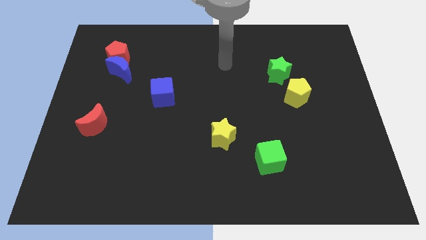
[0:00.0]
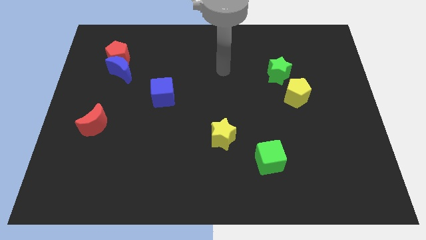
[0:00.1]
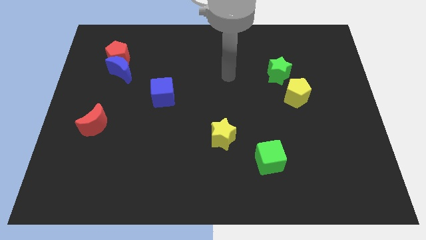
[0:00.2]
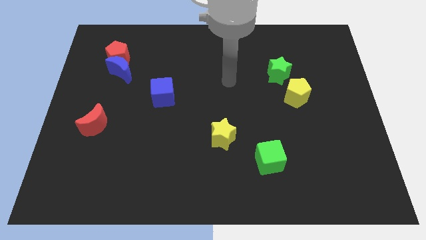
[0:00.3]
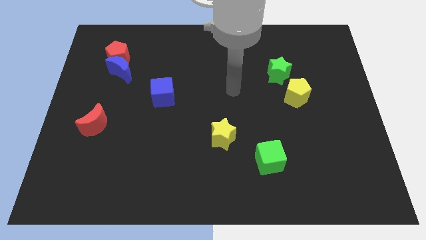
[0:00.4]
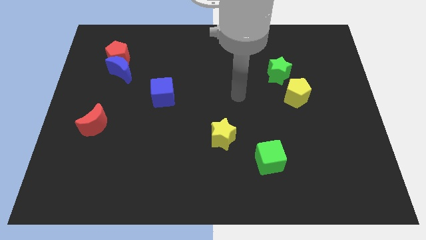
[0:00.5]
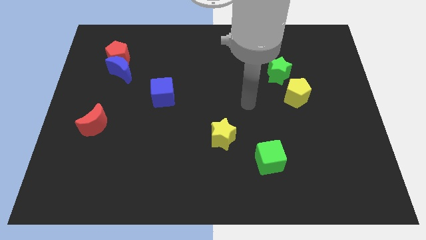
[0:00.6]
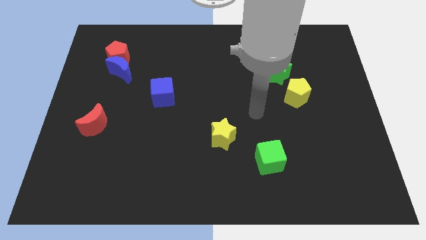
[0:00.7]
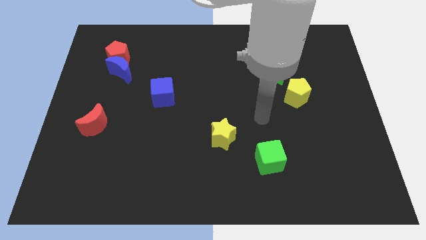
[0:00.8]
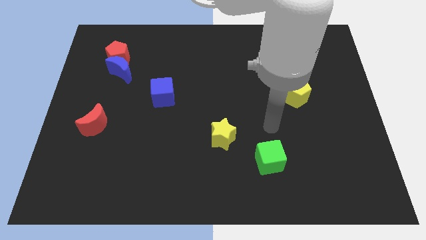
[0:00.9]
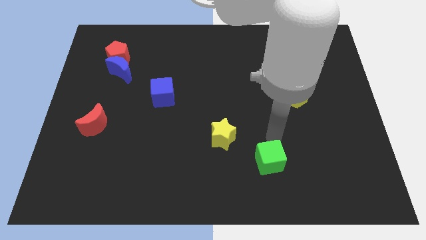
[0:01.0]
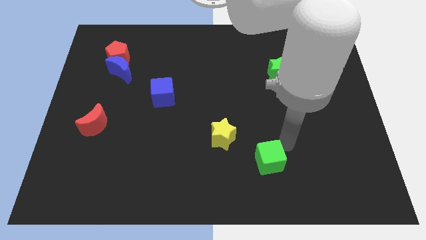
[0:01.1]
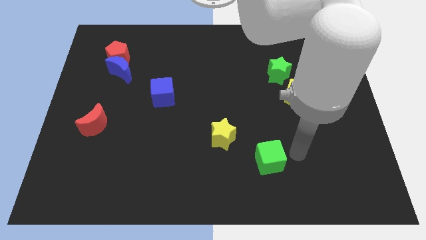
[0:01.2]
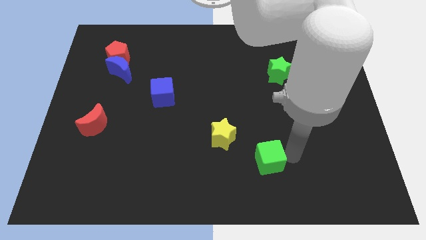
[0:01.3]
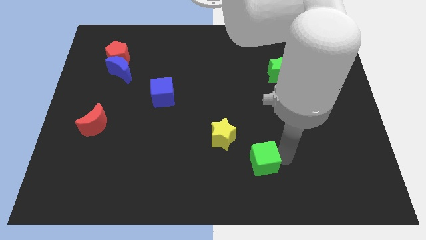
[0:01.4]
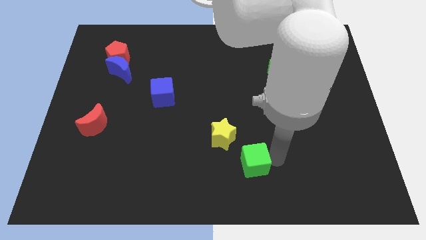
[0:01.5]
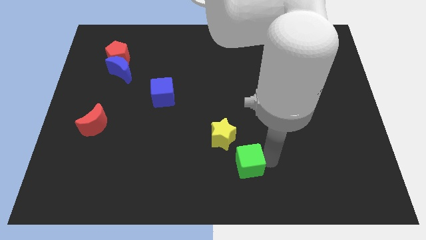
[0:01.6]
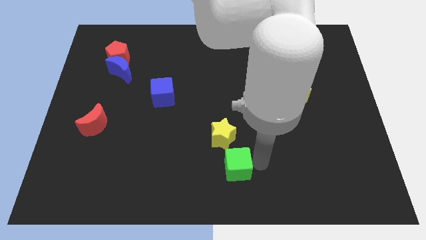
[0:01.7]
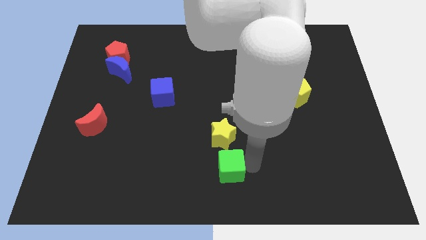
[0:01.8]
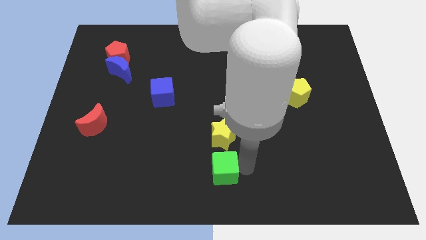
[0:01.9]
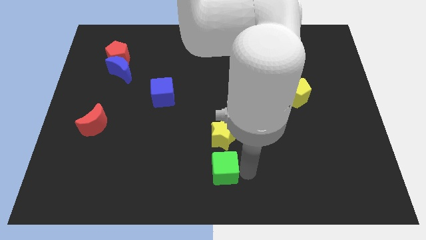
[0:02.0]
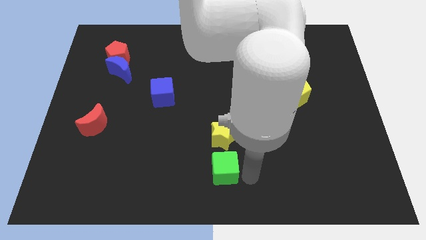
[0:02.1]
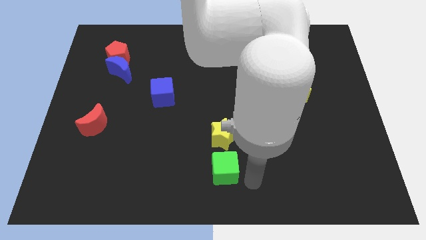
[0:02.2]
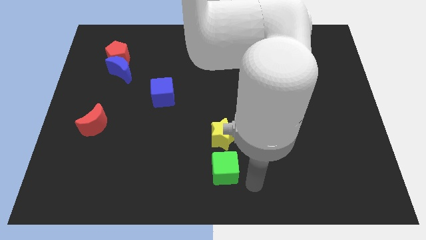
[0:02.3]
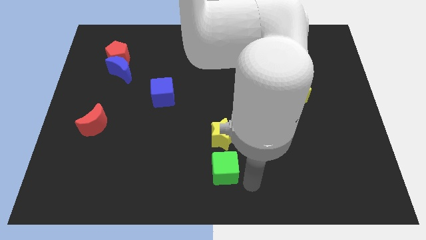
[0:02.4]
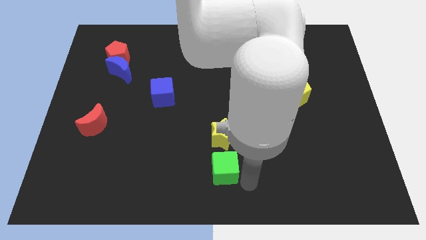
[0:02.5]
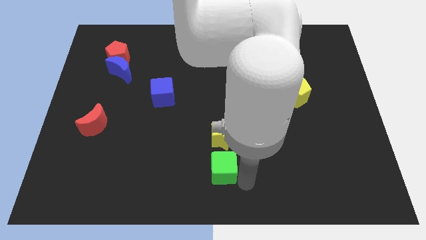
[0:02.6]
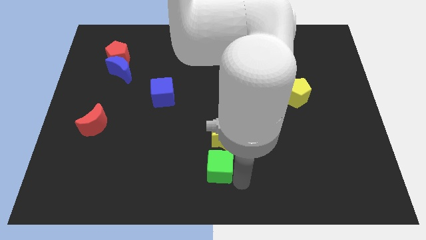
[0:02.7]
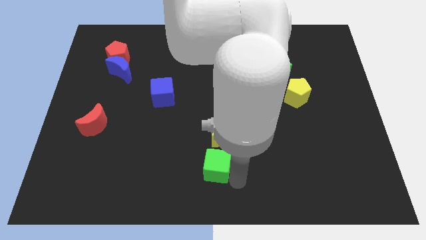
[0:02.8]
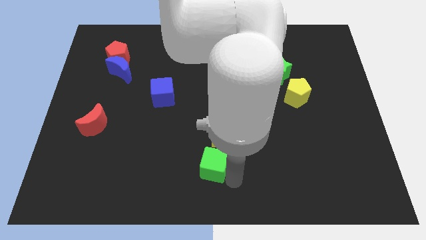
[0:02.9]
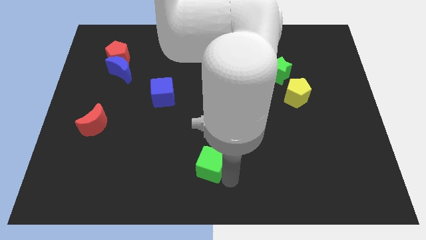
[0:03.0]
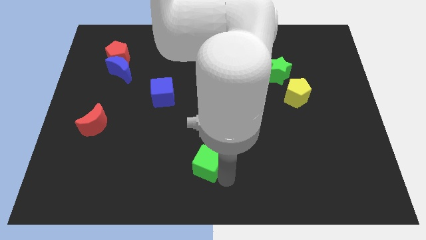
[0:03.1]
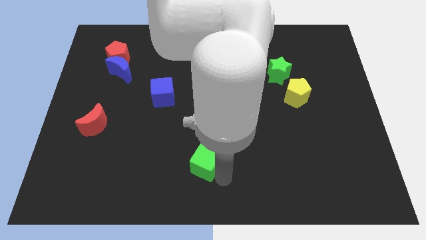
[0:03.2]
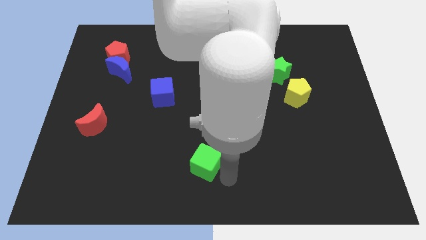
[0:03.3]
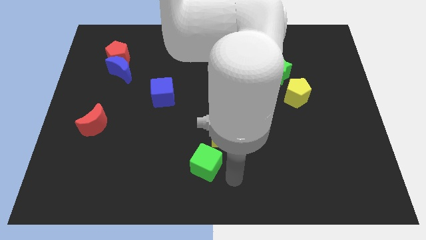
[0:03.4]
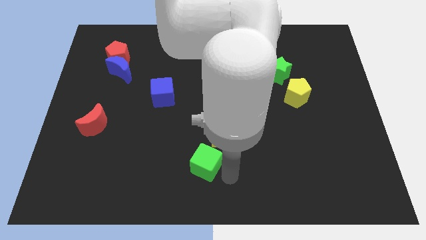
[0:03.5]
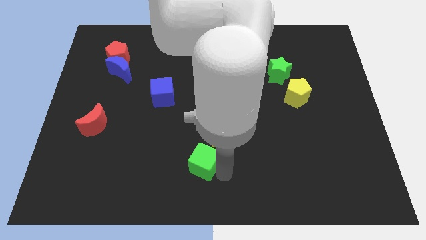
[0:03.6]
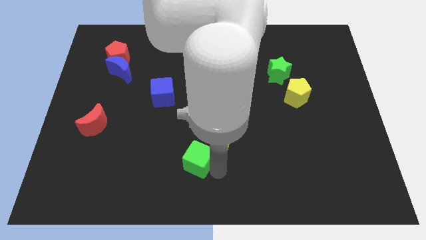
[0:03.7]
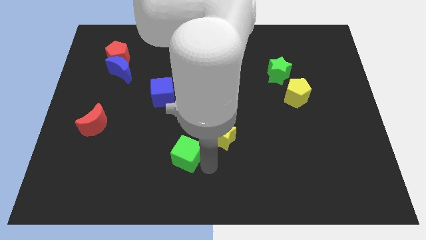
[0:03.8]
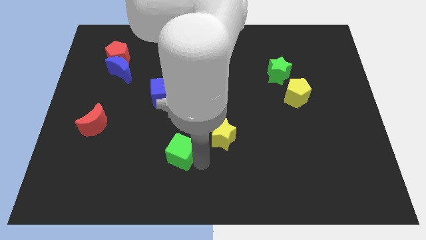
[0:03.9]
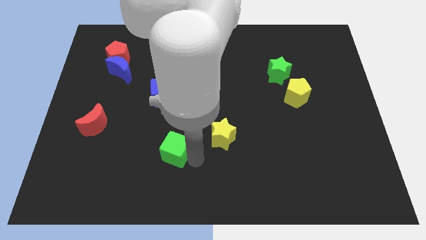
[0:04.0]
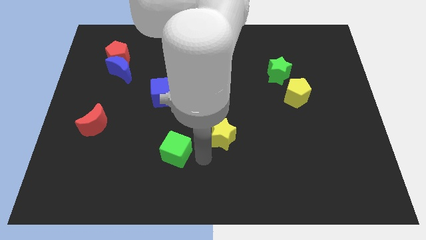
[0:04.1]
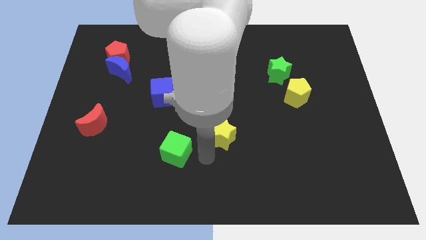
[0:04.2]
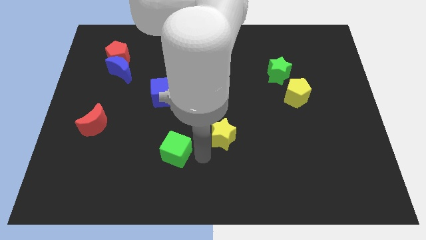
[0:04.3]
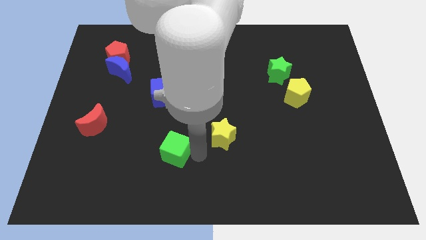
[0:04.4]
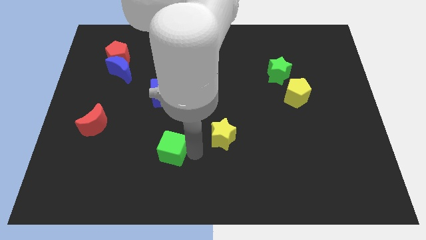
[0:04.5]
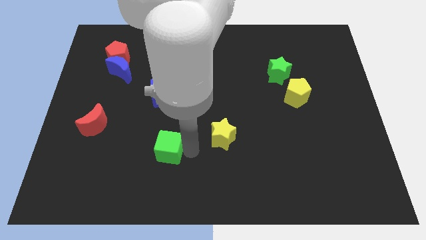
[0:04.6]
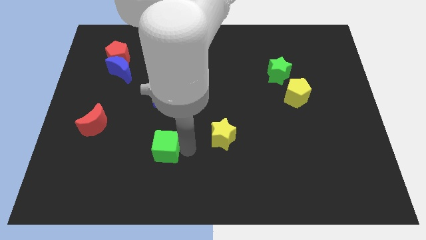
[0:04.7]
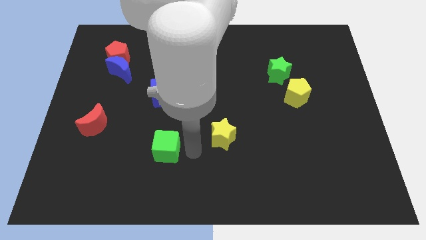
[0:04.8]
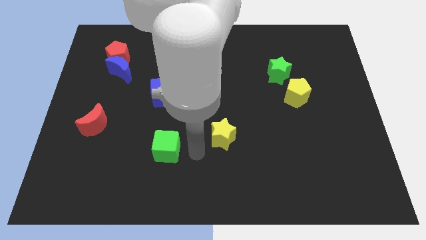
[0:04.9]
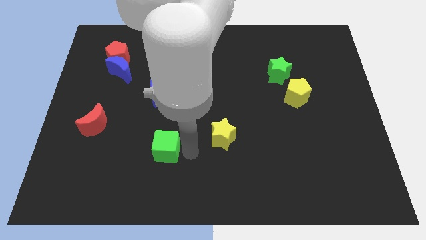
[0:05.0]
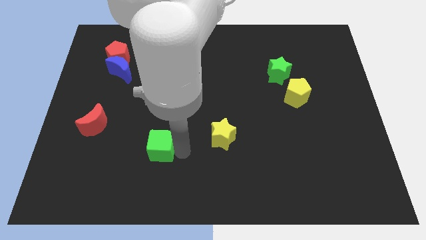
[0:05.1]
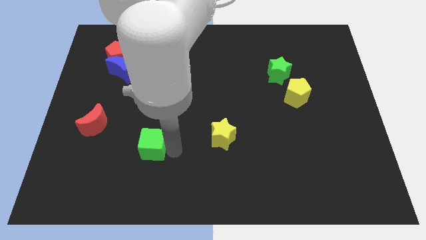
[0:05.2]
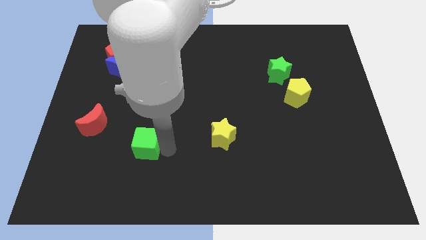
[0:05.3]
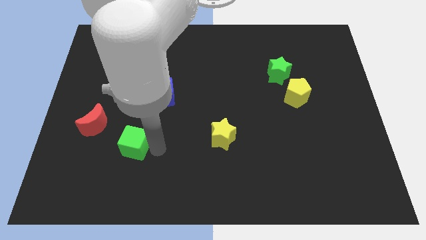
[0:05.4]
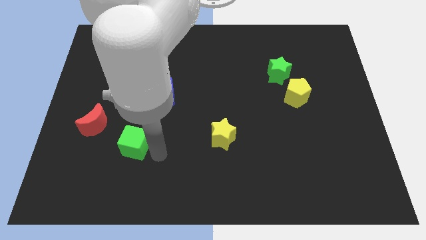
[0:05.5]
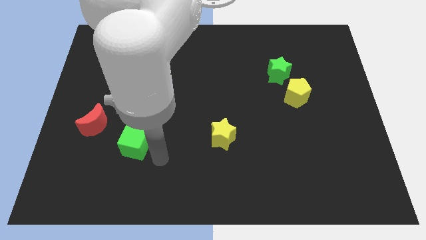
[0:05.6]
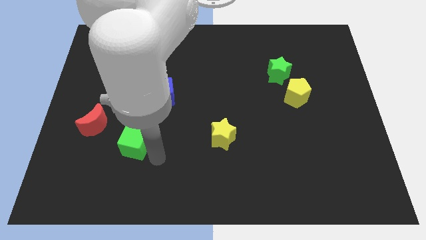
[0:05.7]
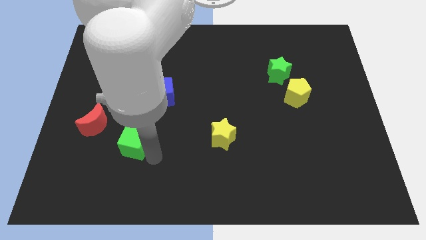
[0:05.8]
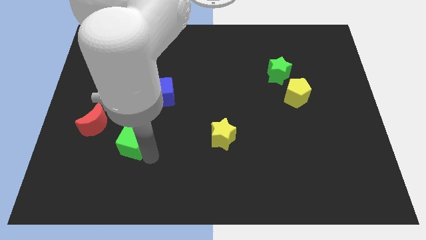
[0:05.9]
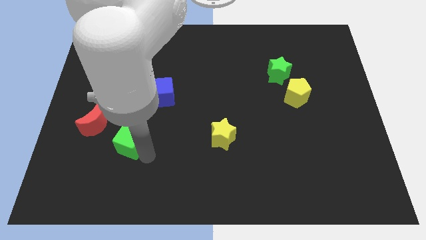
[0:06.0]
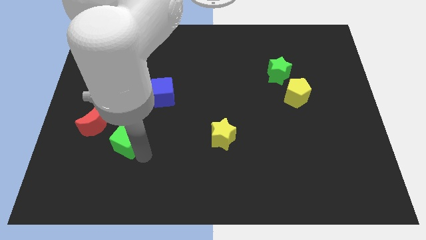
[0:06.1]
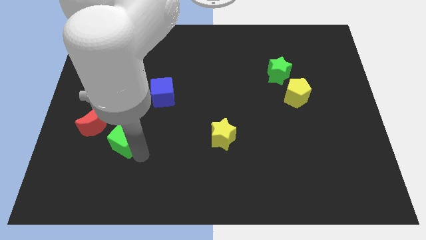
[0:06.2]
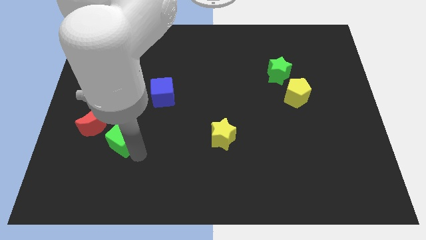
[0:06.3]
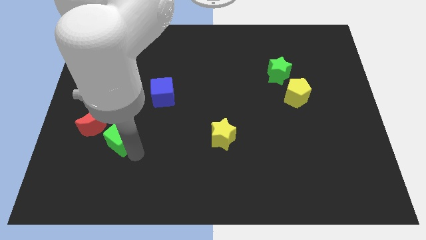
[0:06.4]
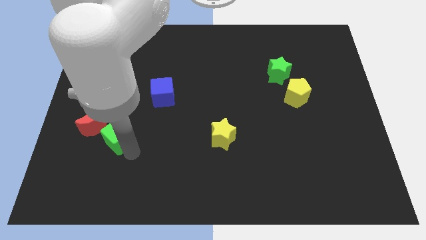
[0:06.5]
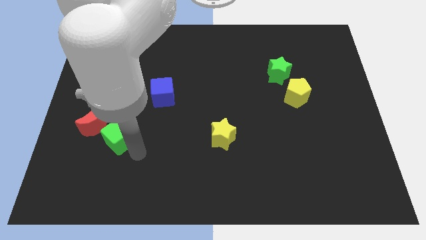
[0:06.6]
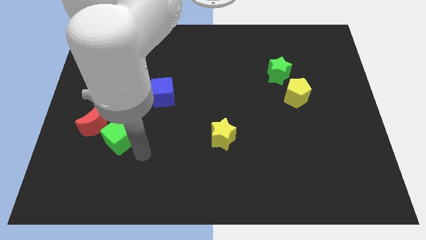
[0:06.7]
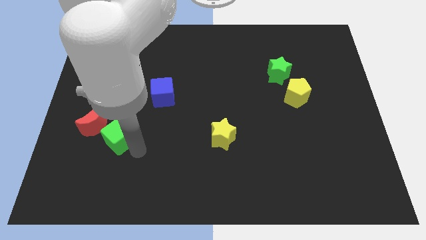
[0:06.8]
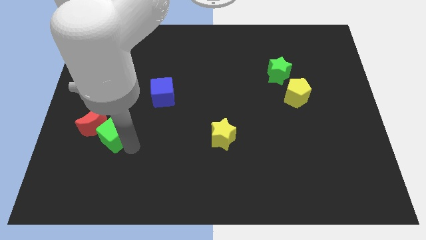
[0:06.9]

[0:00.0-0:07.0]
slide the green cube to the red moon
